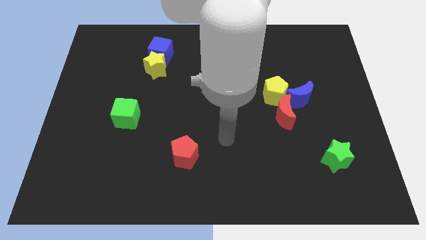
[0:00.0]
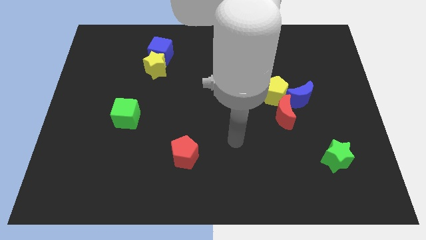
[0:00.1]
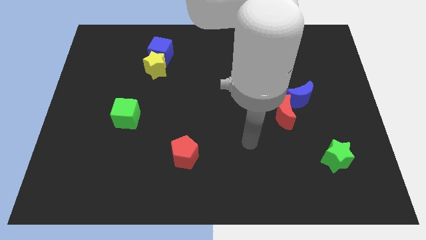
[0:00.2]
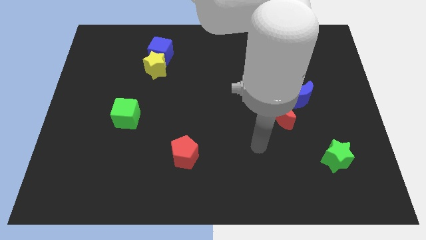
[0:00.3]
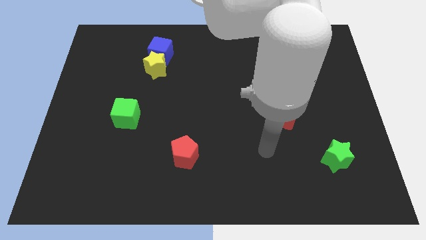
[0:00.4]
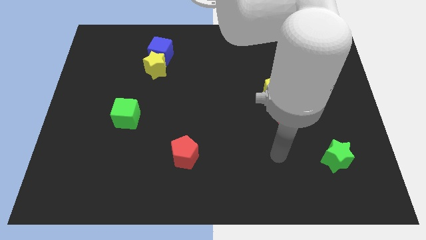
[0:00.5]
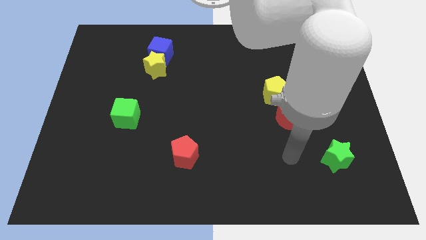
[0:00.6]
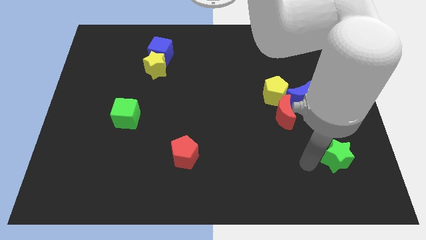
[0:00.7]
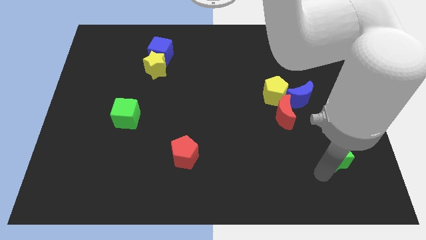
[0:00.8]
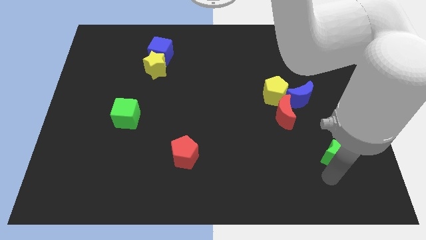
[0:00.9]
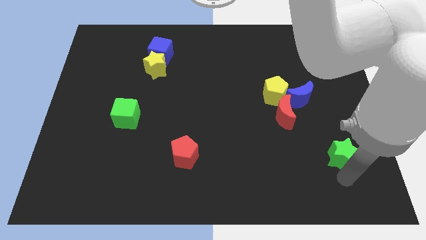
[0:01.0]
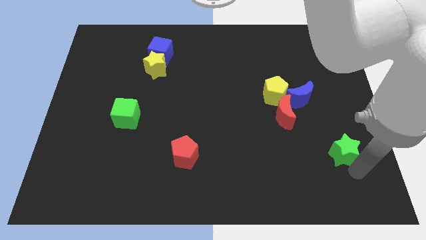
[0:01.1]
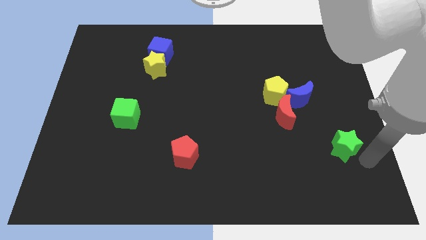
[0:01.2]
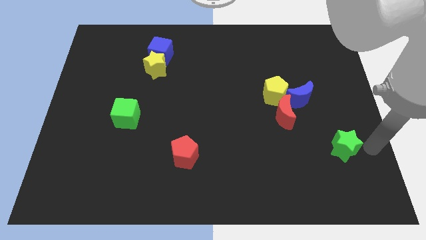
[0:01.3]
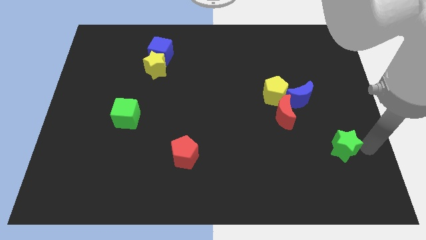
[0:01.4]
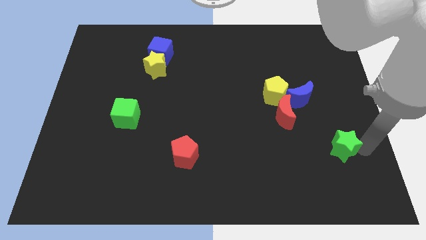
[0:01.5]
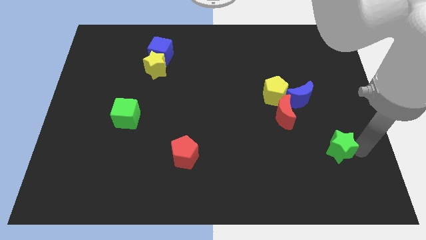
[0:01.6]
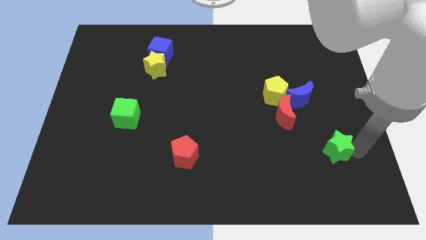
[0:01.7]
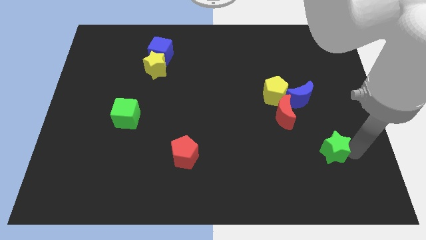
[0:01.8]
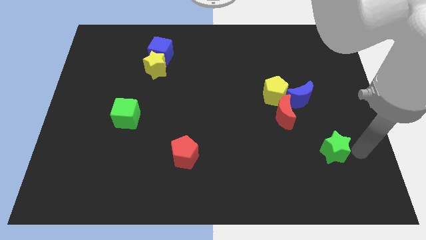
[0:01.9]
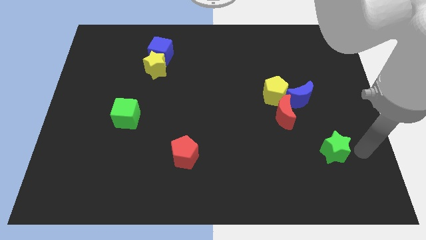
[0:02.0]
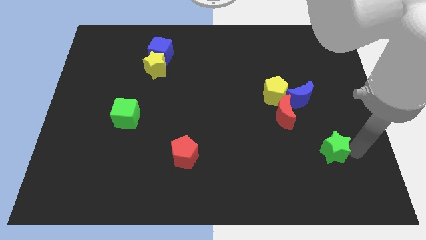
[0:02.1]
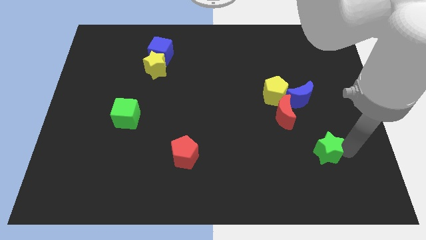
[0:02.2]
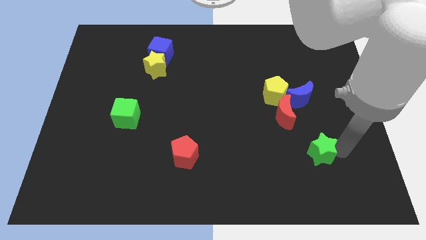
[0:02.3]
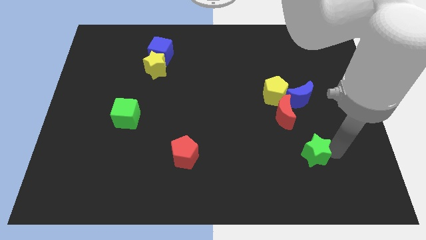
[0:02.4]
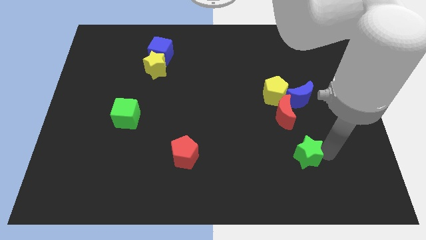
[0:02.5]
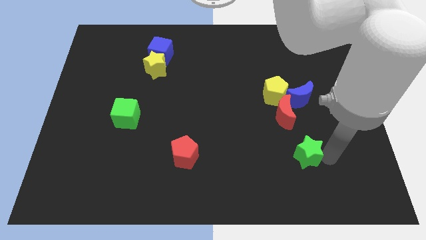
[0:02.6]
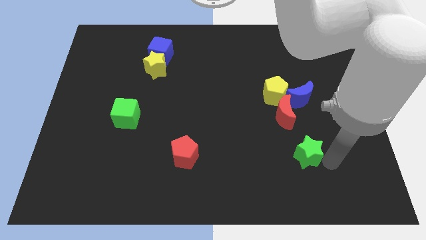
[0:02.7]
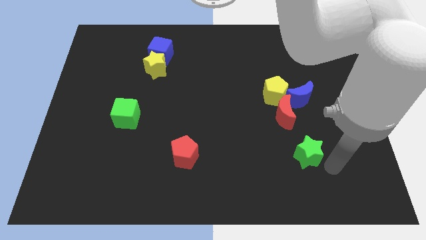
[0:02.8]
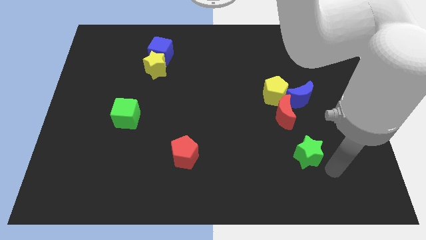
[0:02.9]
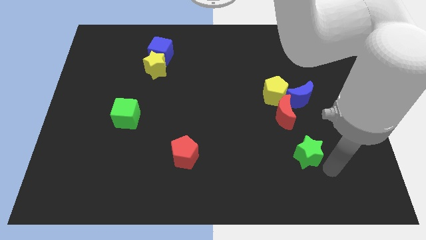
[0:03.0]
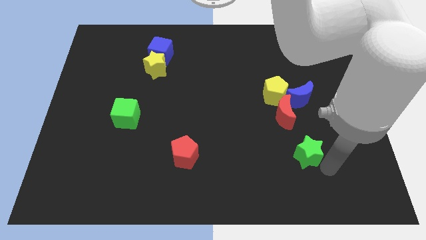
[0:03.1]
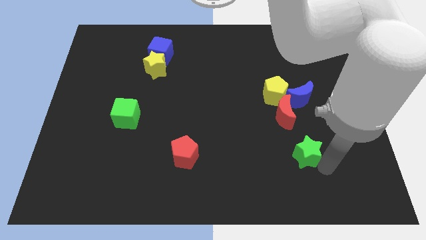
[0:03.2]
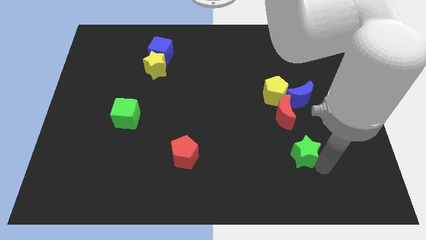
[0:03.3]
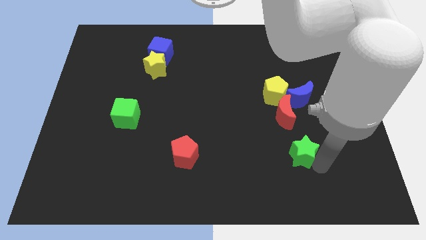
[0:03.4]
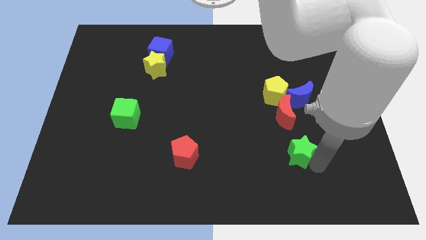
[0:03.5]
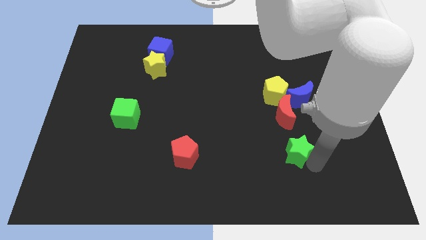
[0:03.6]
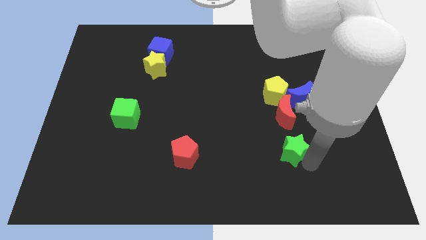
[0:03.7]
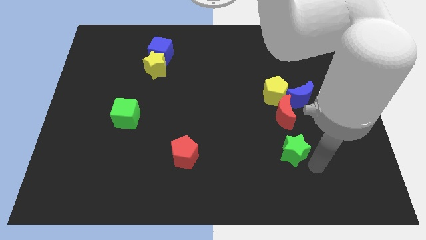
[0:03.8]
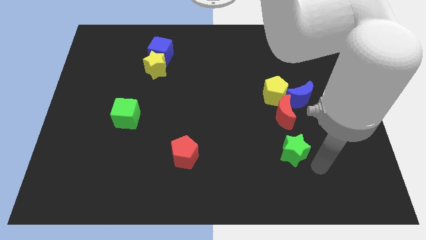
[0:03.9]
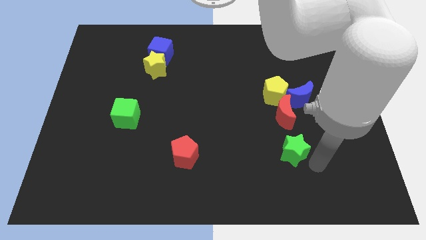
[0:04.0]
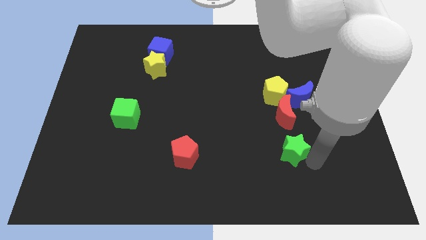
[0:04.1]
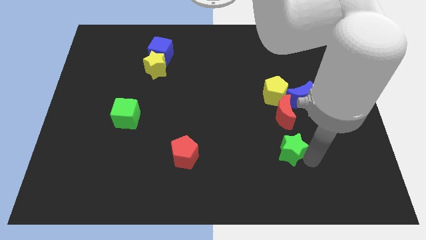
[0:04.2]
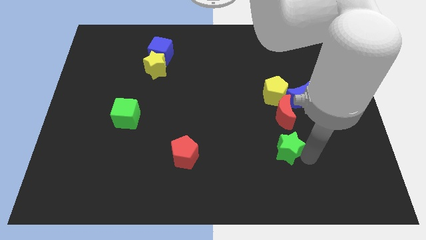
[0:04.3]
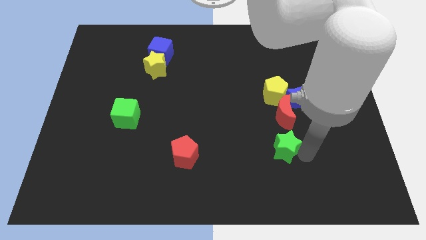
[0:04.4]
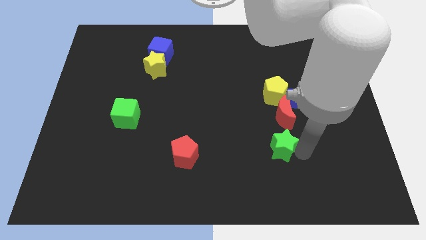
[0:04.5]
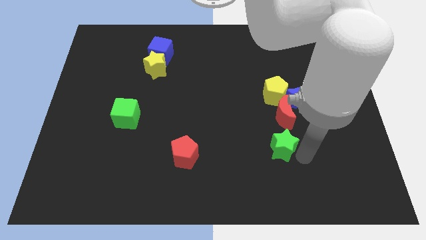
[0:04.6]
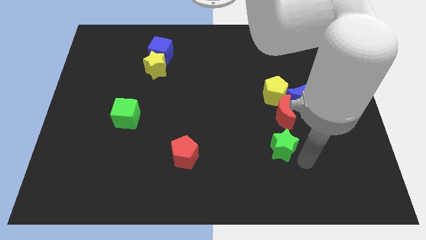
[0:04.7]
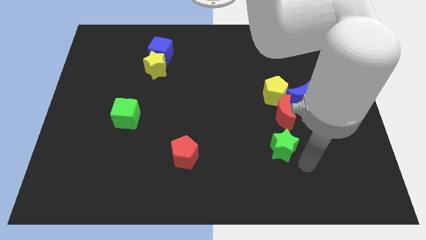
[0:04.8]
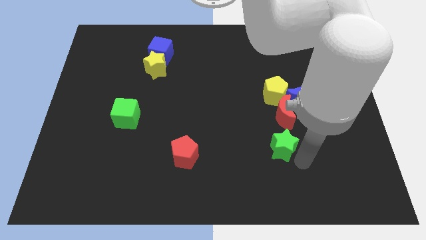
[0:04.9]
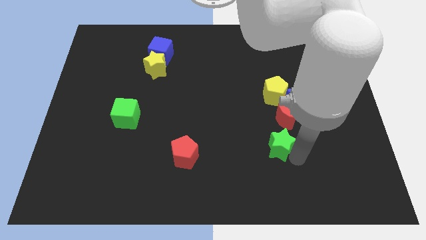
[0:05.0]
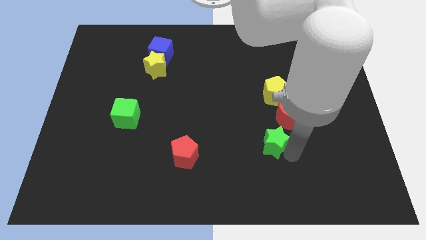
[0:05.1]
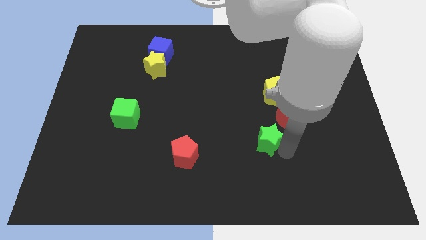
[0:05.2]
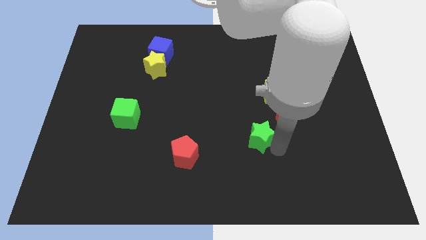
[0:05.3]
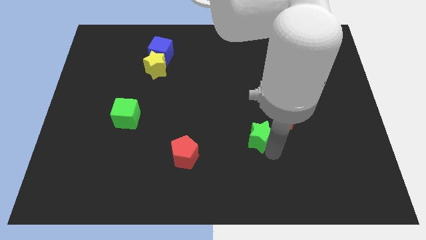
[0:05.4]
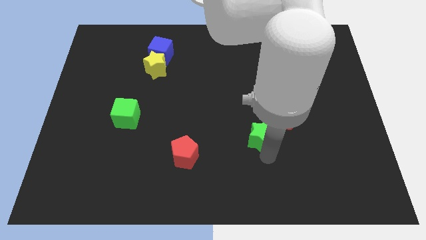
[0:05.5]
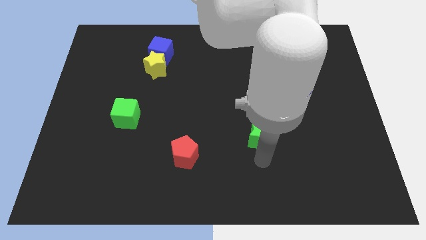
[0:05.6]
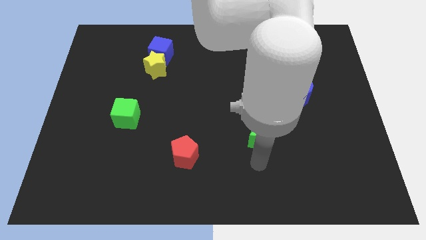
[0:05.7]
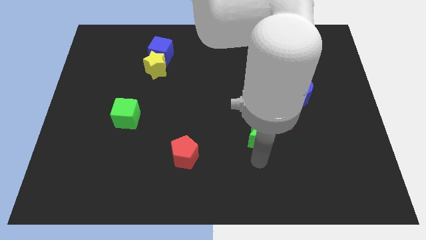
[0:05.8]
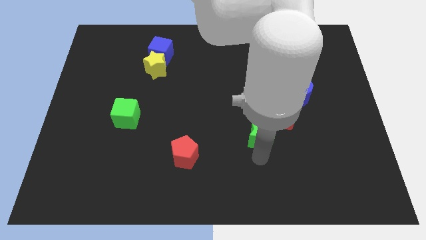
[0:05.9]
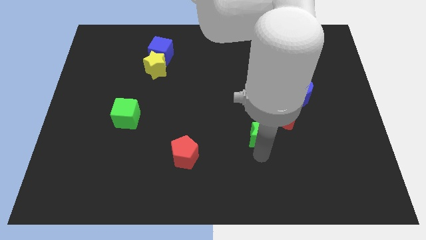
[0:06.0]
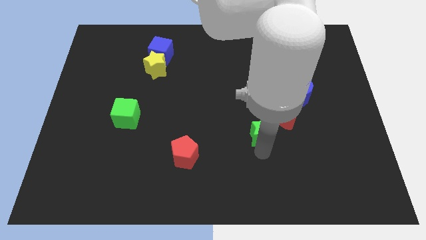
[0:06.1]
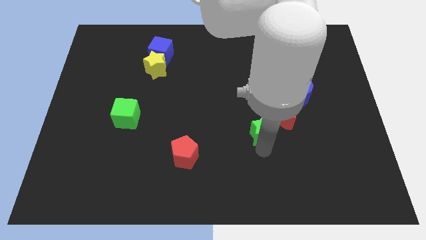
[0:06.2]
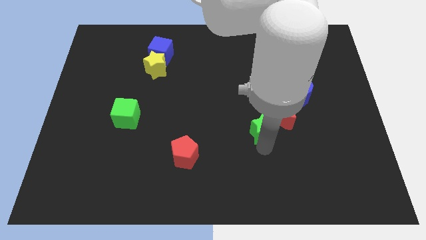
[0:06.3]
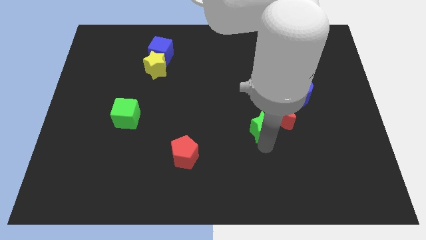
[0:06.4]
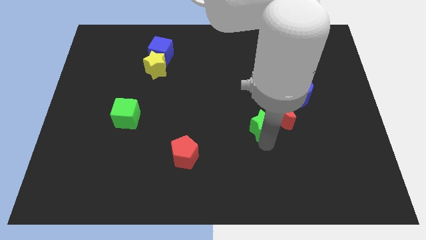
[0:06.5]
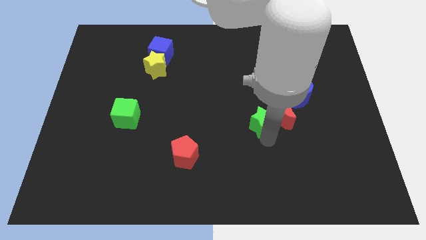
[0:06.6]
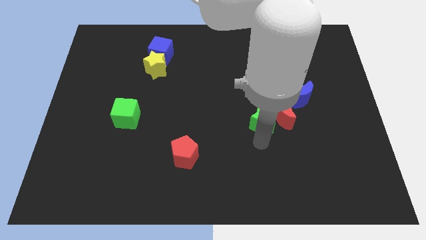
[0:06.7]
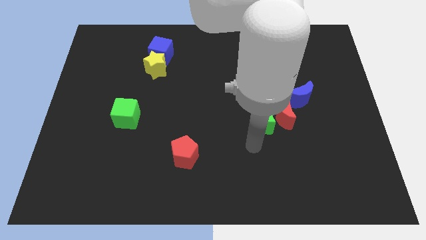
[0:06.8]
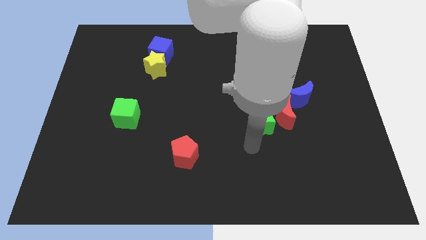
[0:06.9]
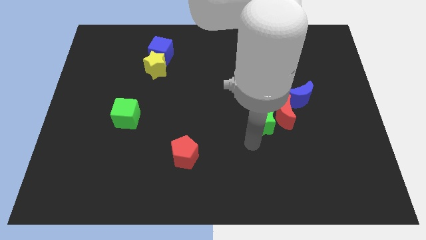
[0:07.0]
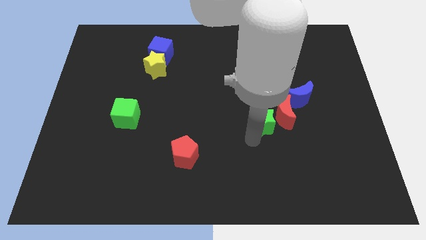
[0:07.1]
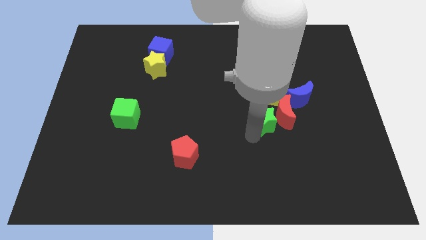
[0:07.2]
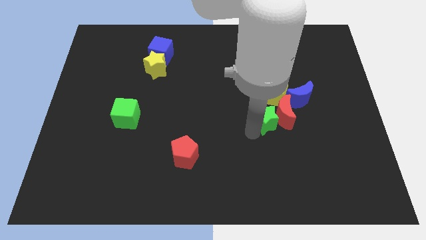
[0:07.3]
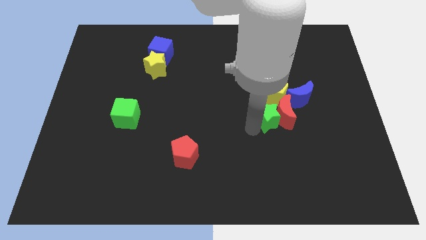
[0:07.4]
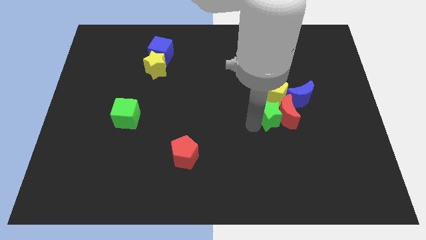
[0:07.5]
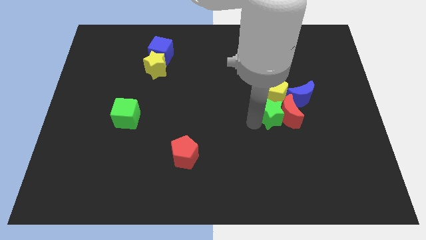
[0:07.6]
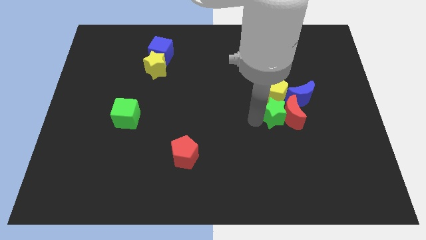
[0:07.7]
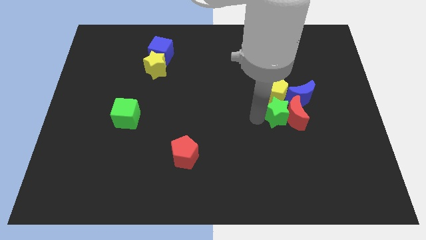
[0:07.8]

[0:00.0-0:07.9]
put the green star to the yellow pentagon
